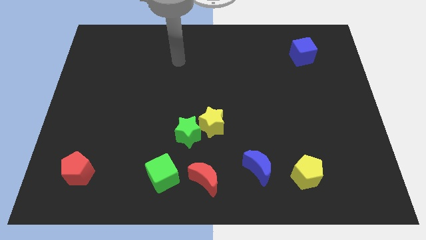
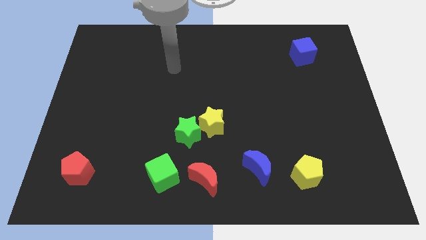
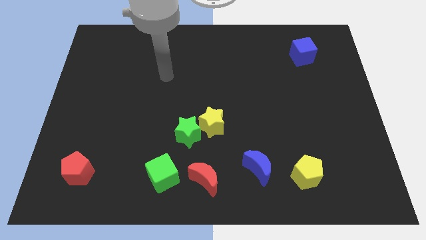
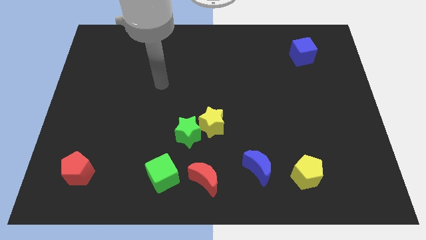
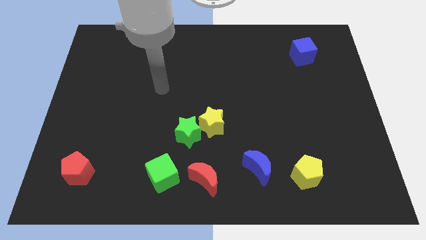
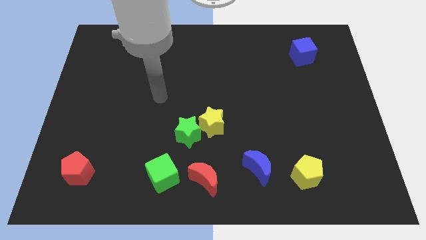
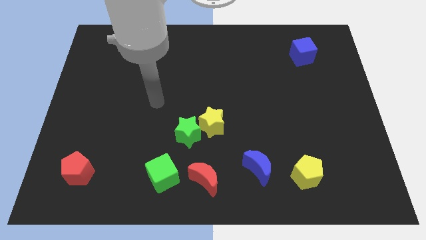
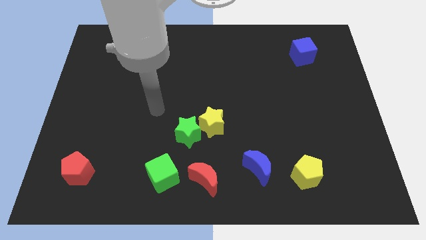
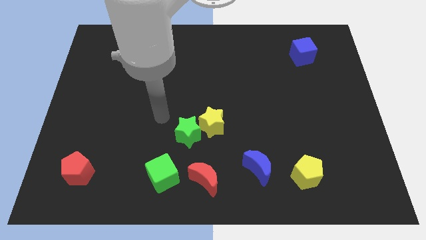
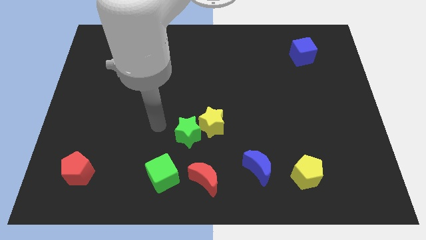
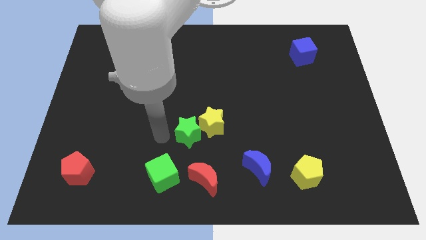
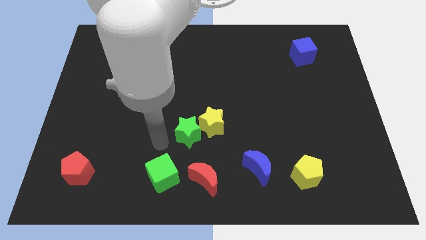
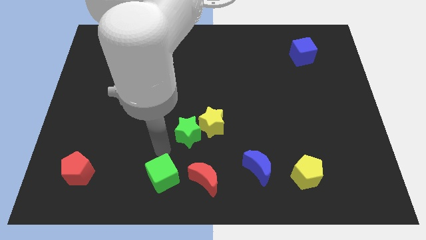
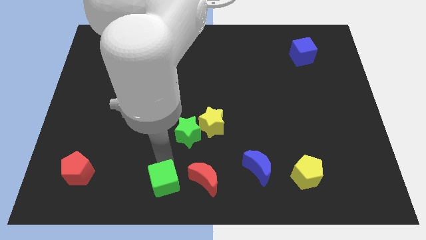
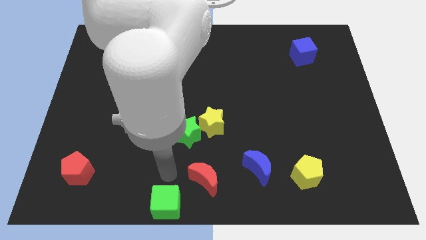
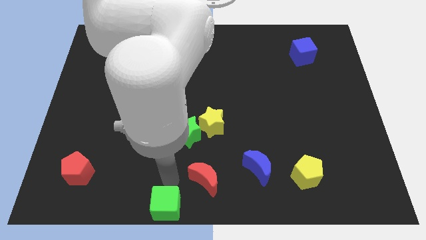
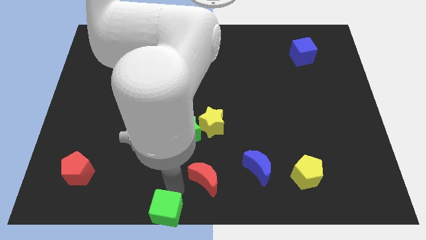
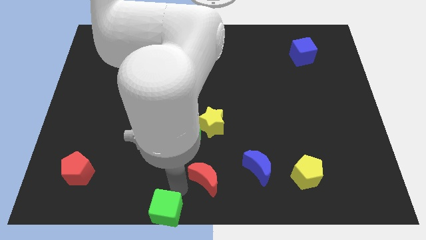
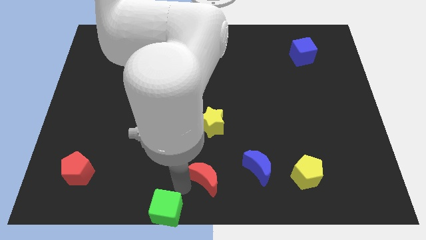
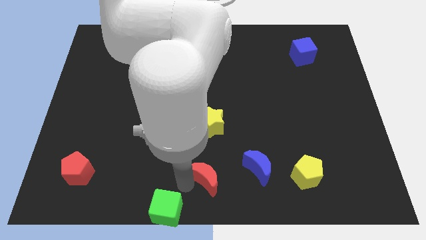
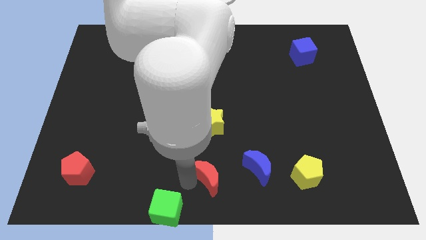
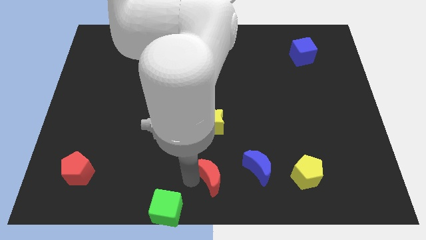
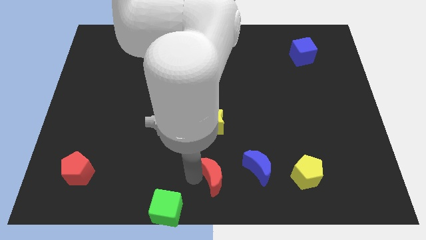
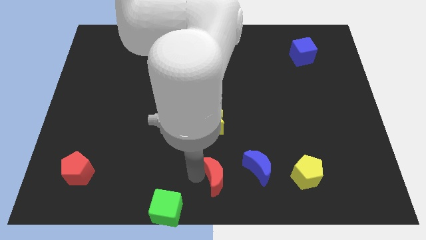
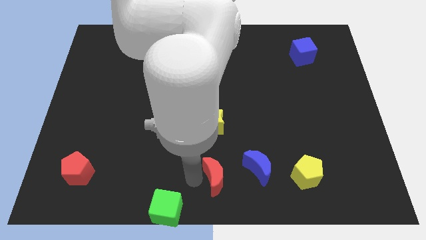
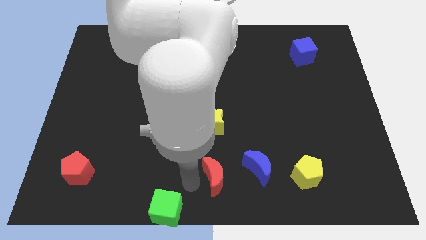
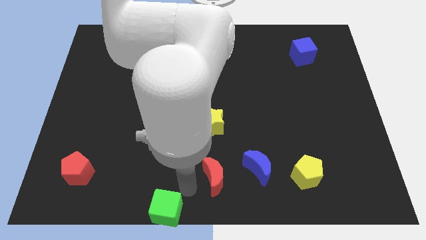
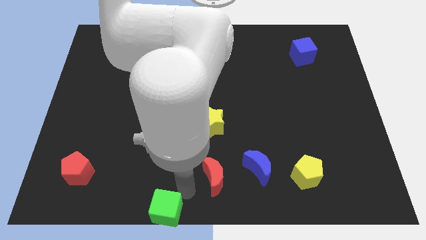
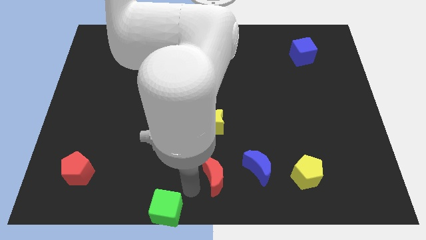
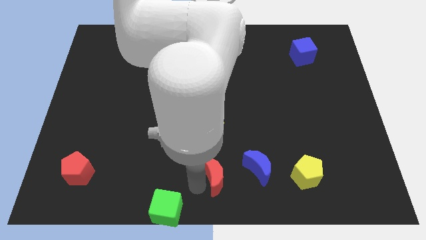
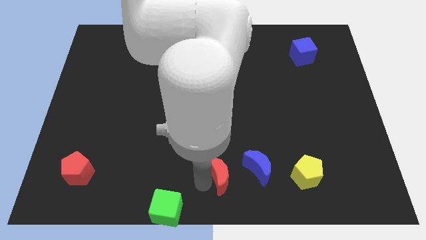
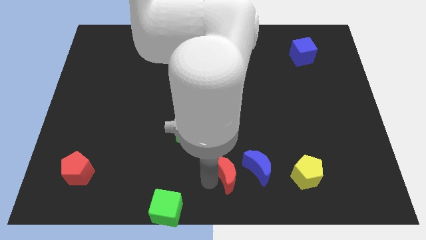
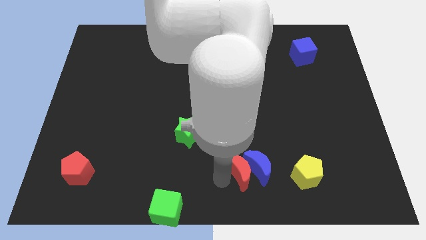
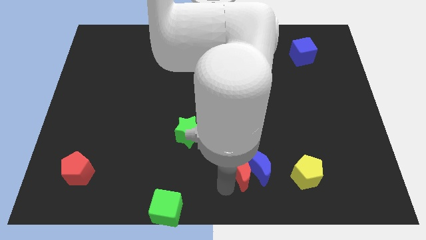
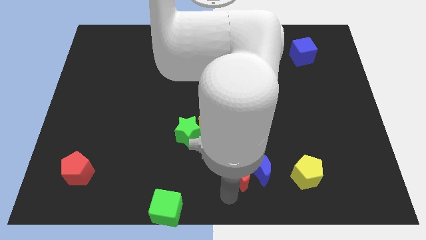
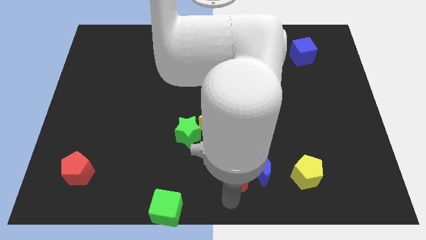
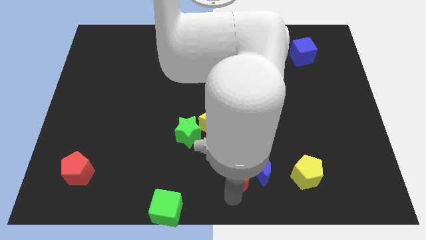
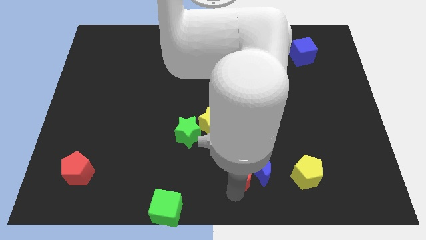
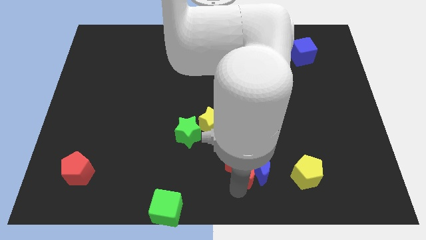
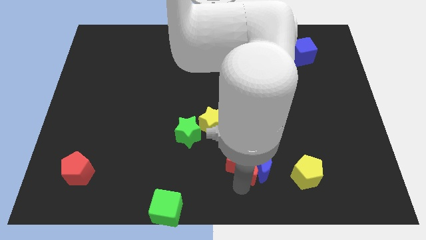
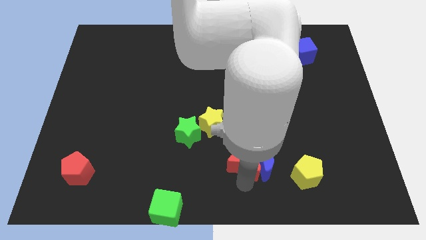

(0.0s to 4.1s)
slide the red moon upwards and then right a little bit

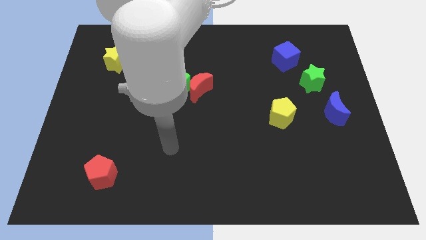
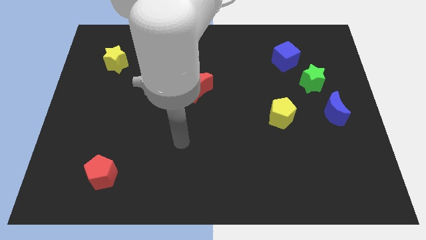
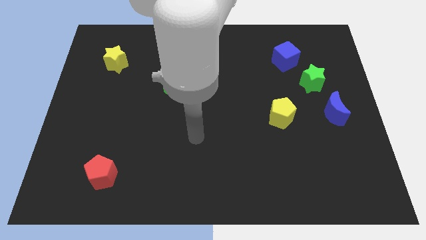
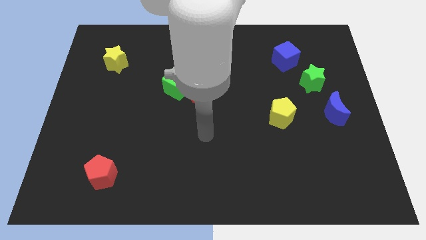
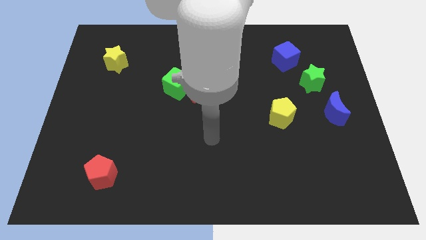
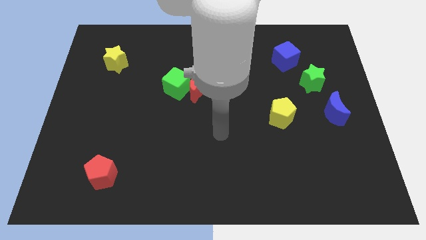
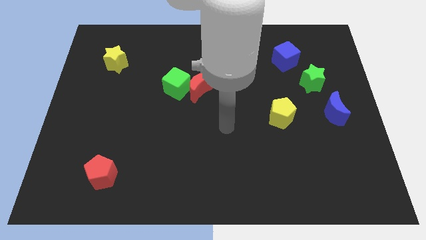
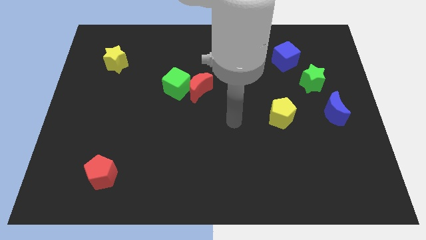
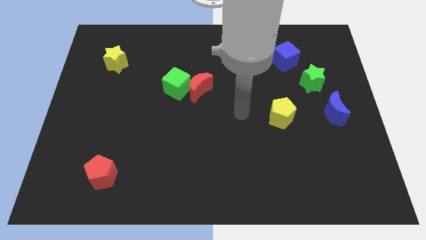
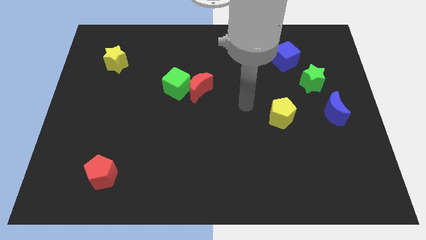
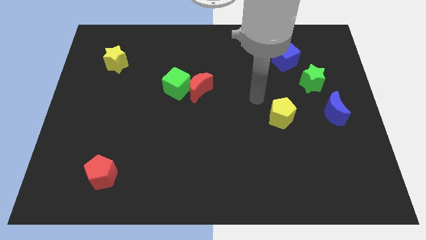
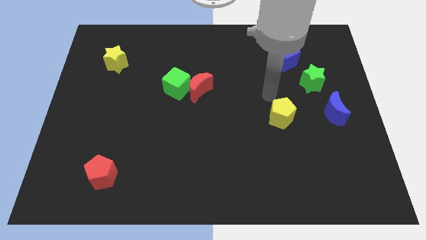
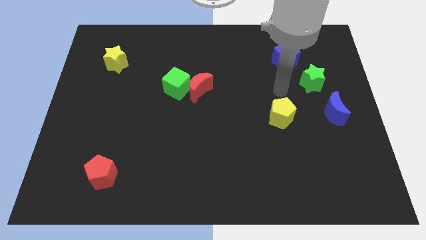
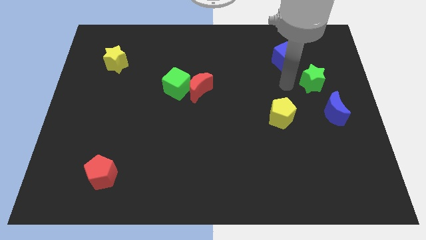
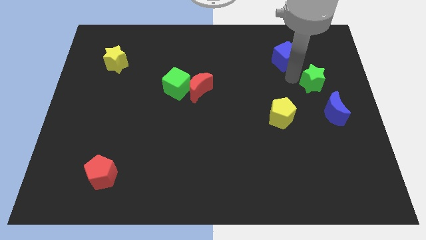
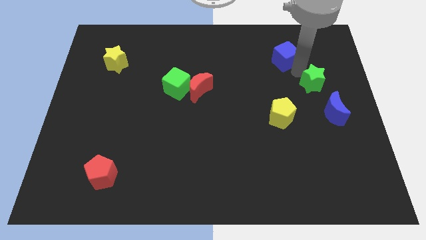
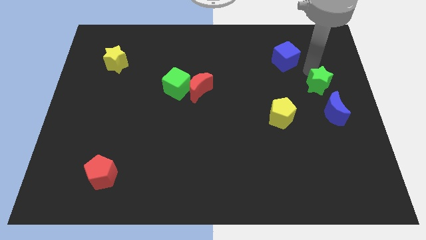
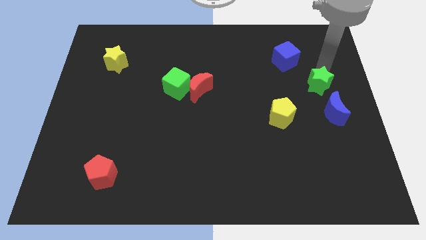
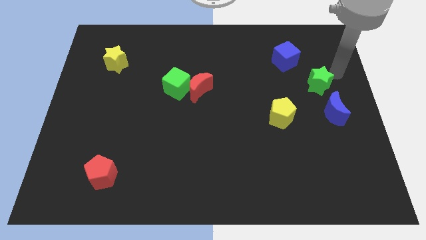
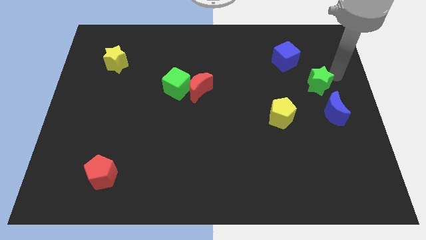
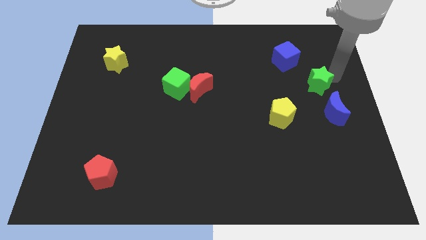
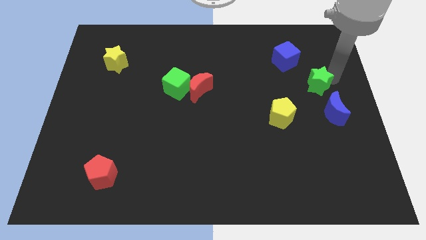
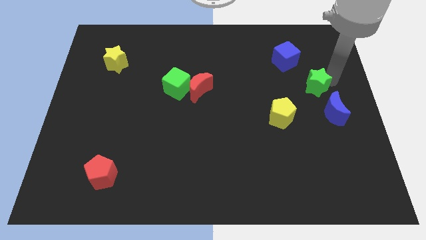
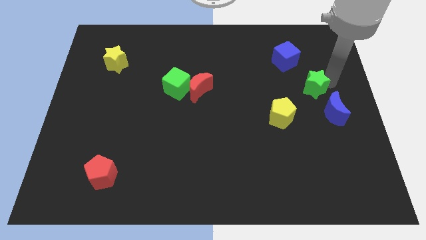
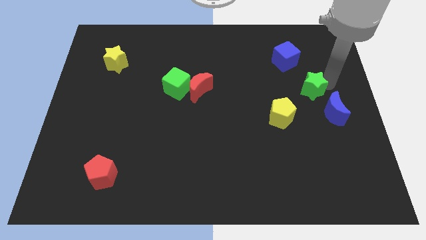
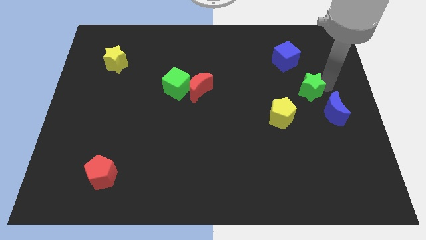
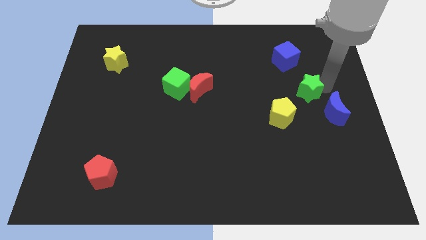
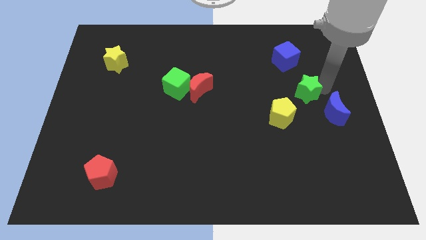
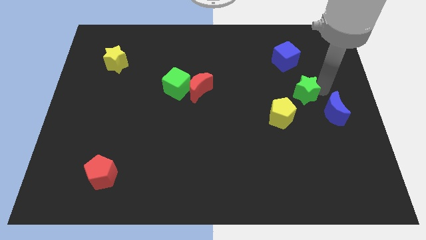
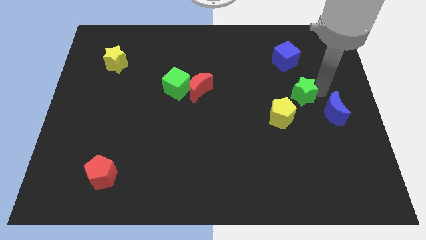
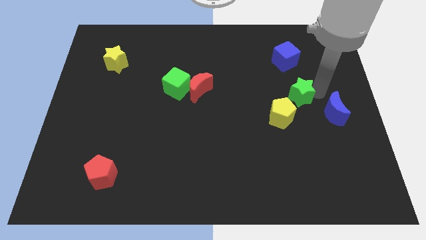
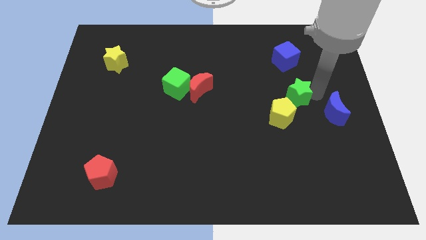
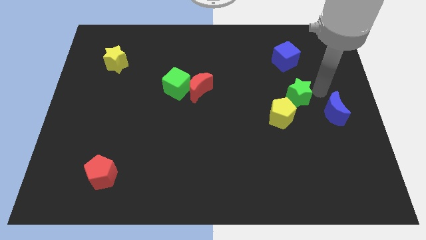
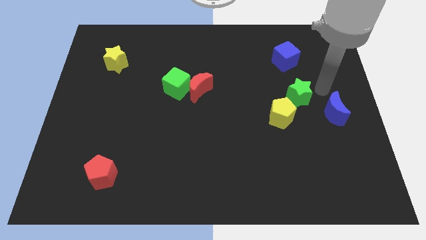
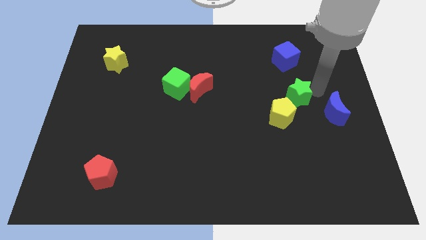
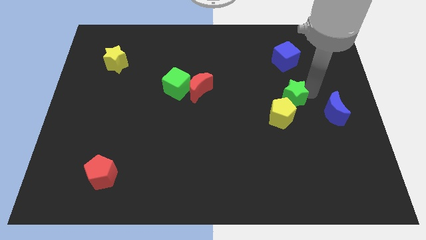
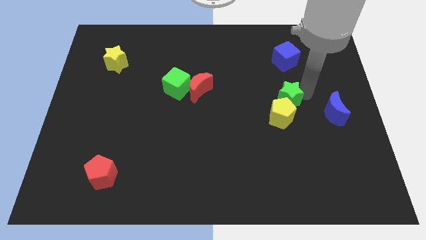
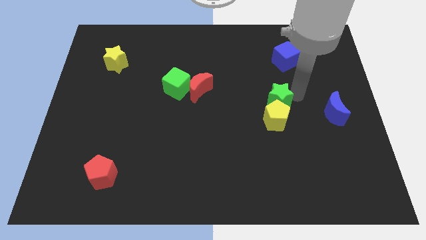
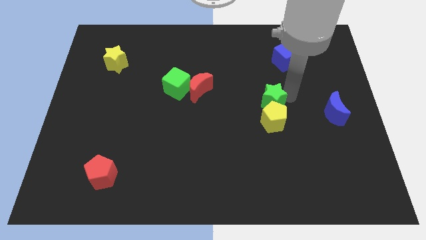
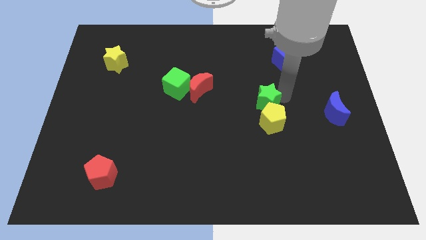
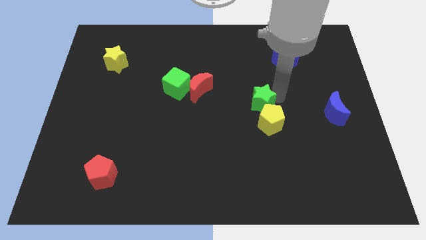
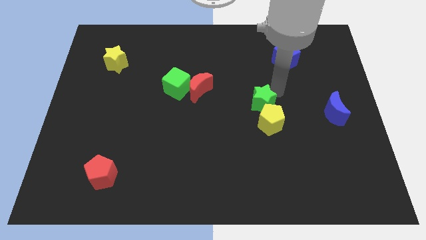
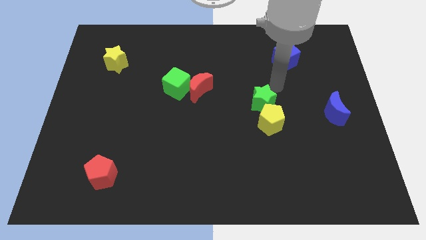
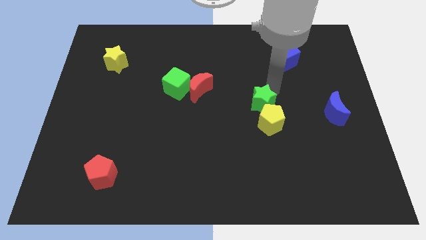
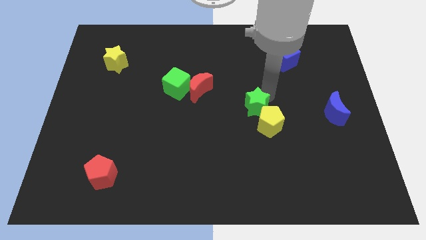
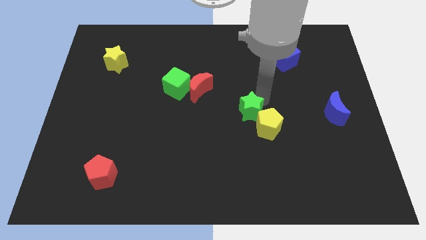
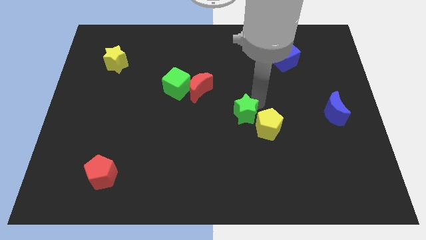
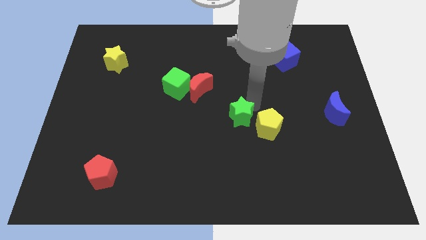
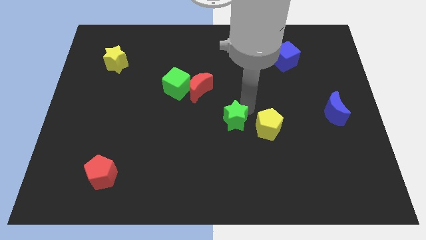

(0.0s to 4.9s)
push the green star diagonally down and to the left
